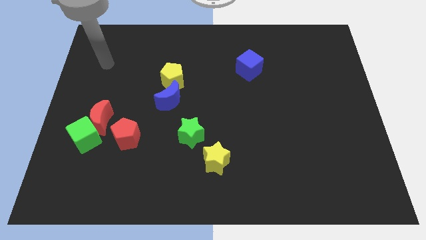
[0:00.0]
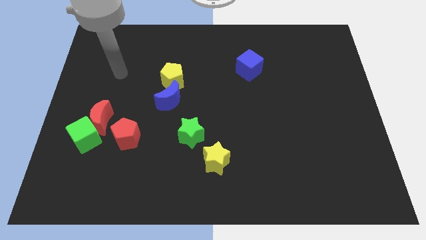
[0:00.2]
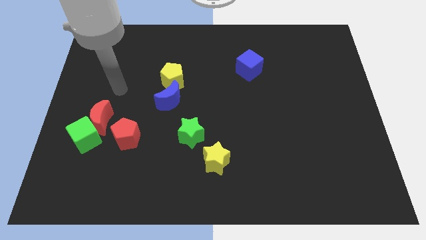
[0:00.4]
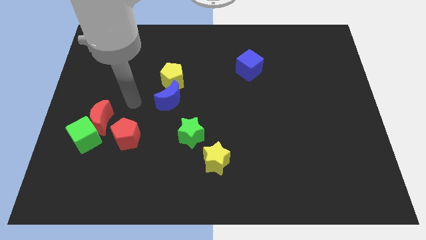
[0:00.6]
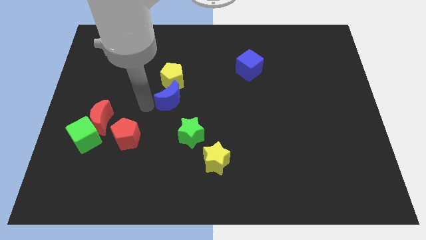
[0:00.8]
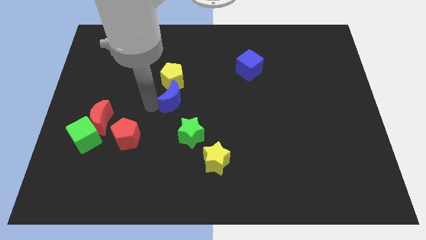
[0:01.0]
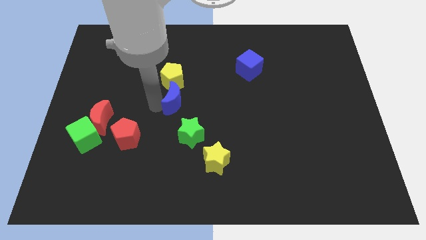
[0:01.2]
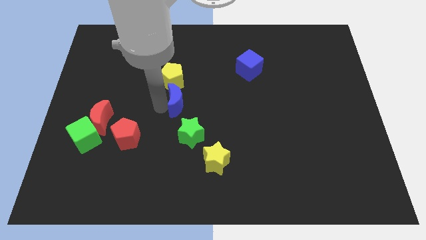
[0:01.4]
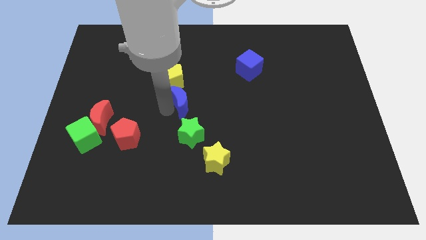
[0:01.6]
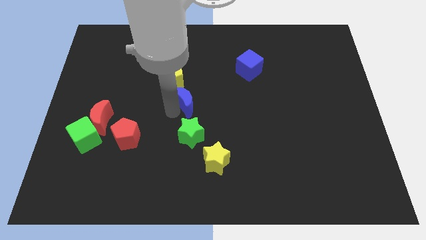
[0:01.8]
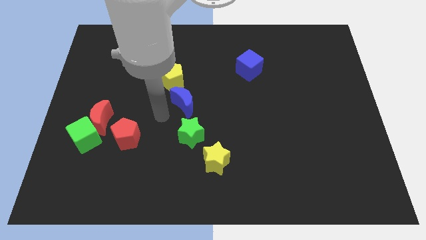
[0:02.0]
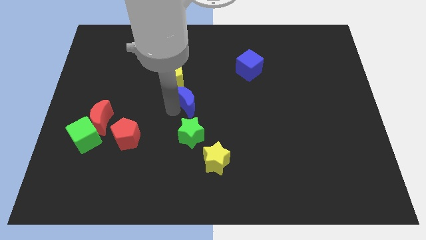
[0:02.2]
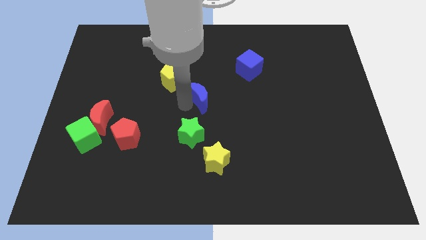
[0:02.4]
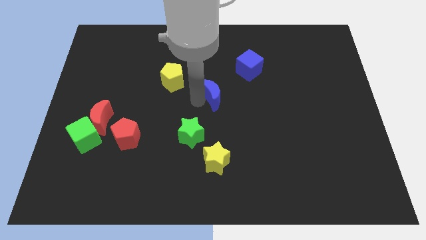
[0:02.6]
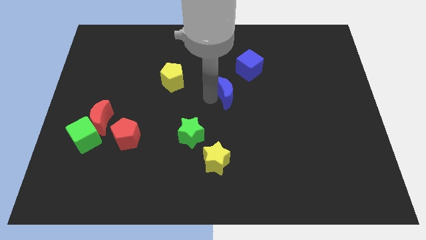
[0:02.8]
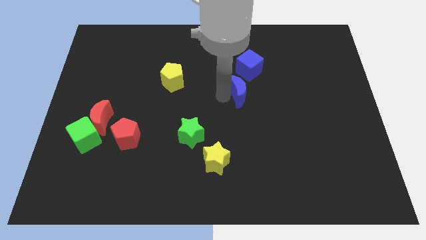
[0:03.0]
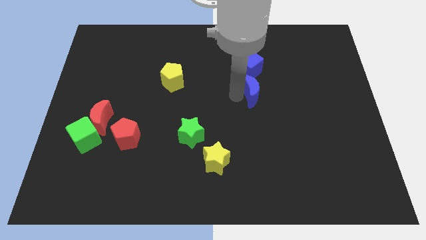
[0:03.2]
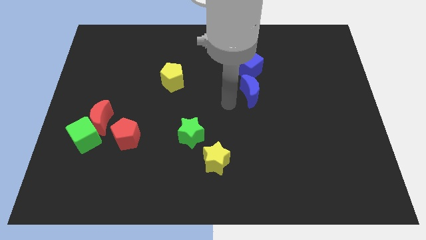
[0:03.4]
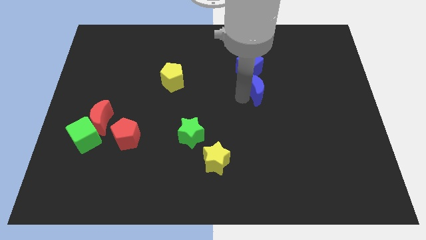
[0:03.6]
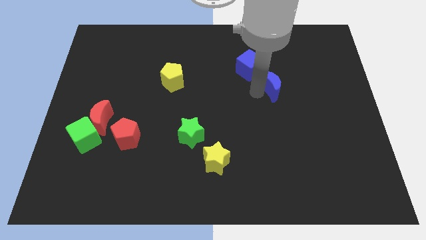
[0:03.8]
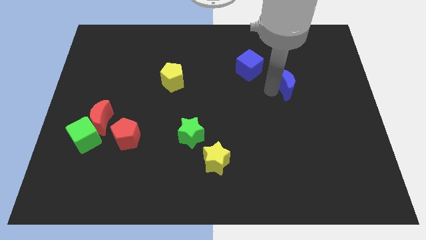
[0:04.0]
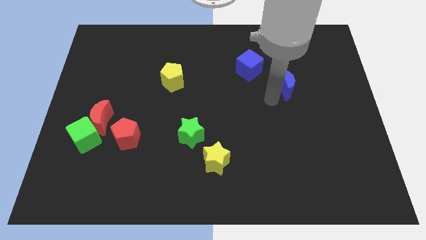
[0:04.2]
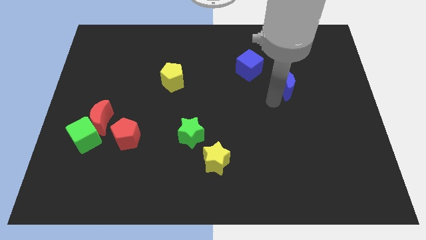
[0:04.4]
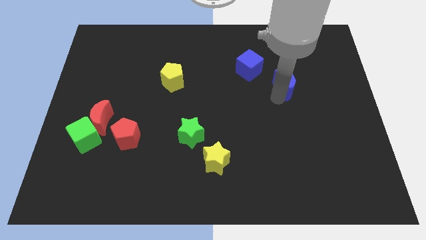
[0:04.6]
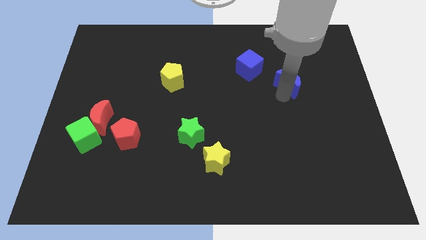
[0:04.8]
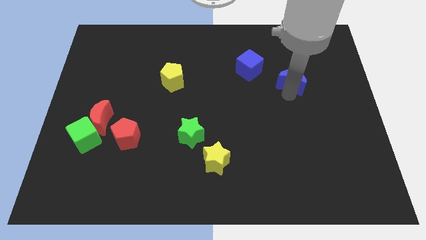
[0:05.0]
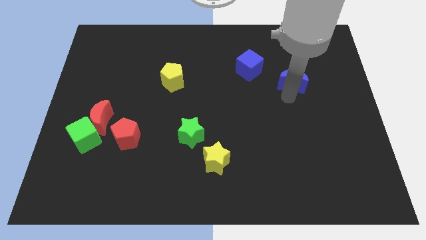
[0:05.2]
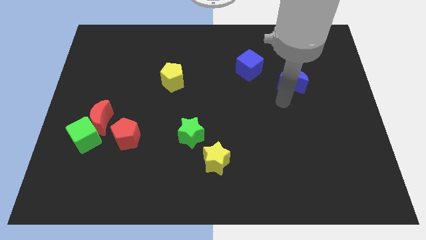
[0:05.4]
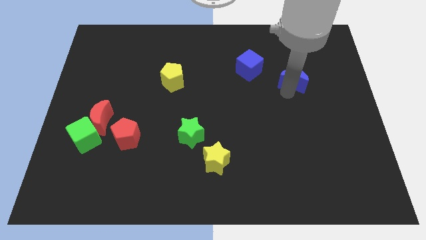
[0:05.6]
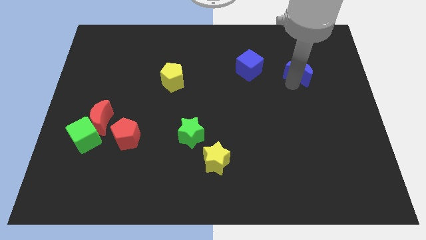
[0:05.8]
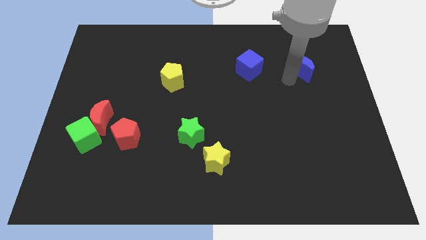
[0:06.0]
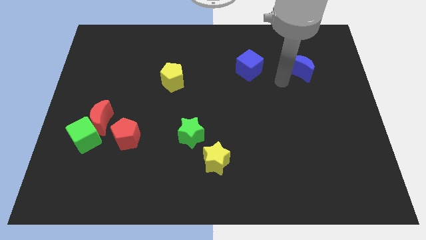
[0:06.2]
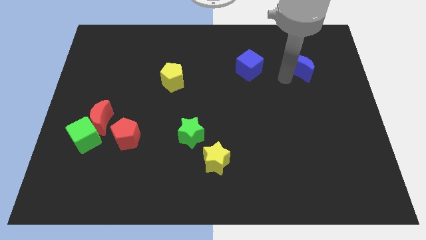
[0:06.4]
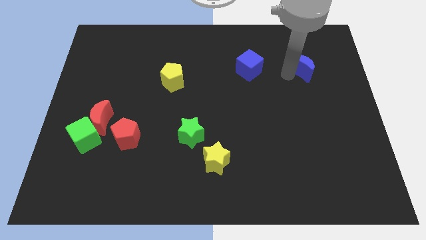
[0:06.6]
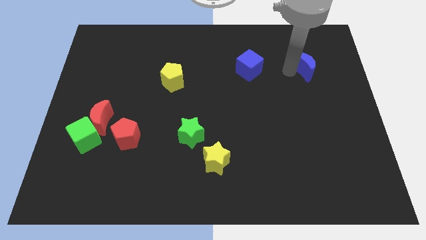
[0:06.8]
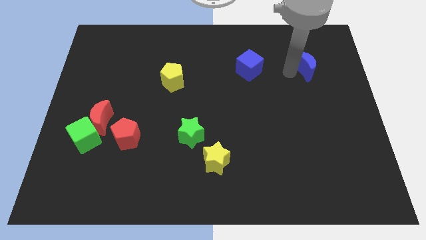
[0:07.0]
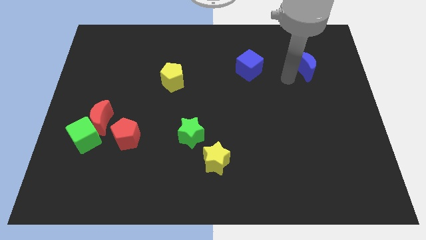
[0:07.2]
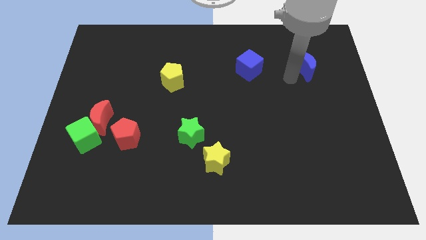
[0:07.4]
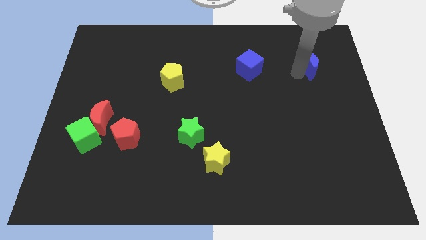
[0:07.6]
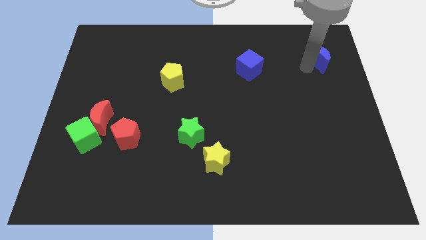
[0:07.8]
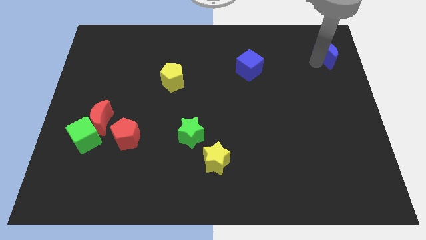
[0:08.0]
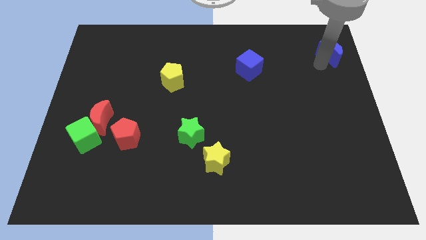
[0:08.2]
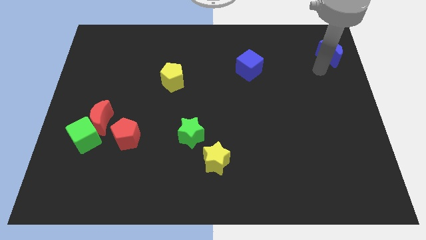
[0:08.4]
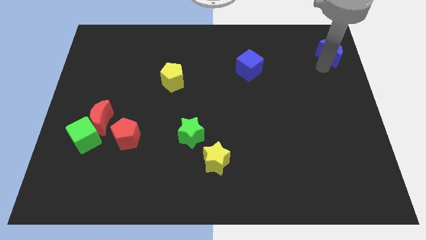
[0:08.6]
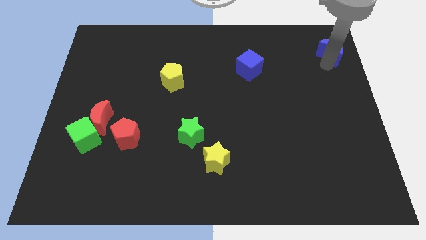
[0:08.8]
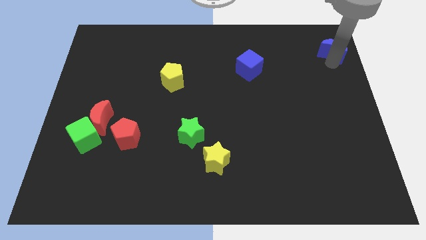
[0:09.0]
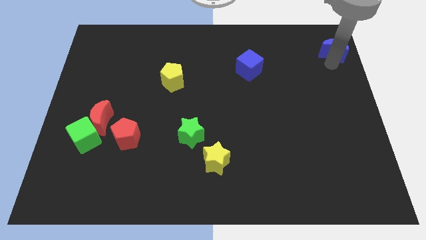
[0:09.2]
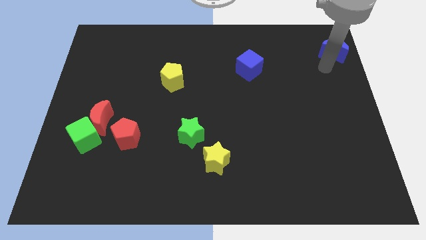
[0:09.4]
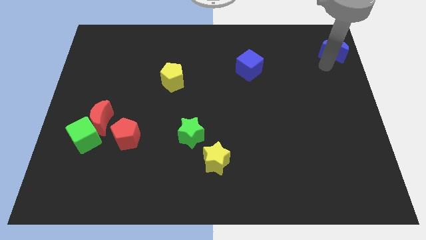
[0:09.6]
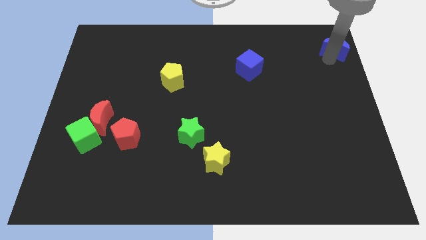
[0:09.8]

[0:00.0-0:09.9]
move the blue moon to the top right corner

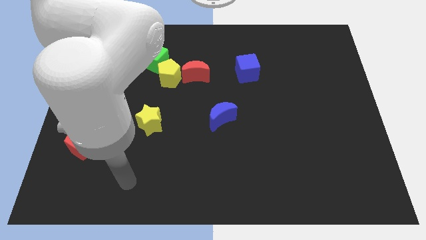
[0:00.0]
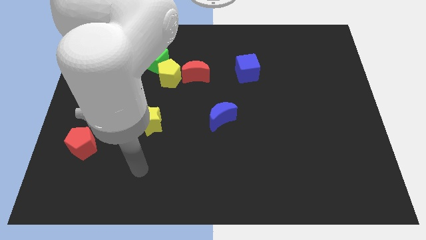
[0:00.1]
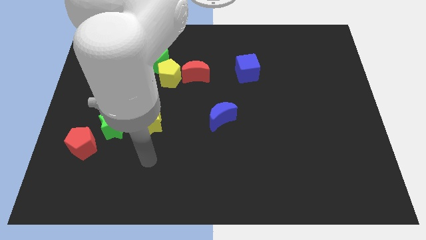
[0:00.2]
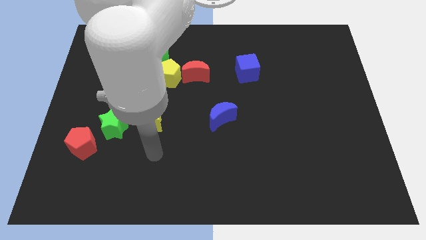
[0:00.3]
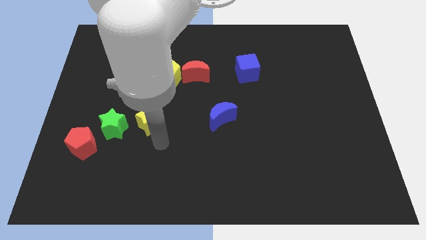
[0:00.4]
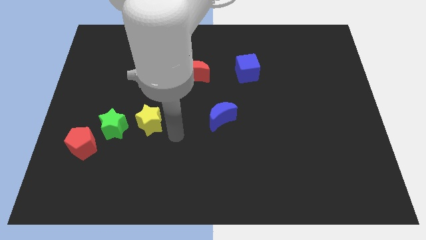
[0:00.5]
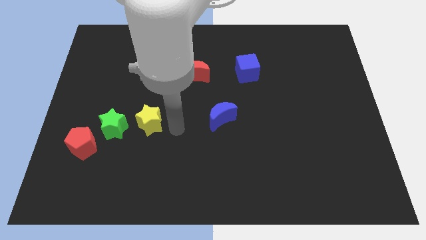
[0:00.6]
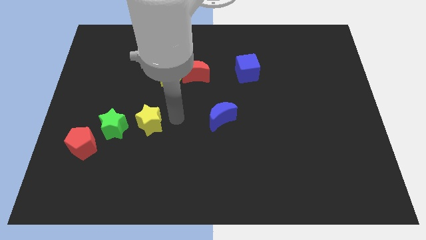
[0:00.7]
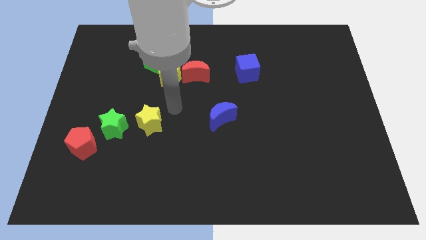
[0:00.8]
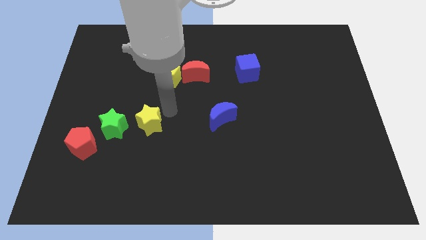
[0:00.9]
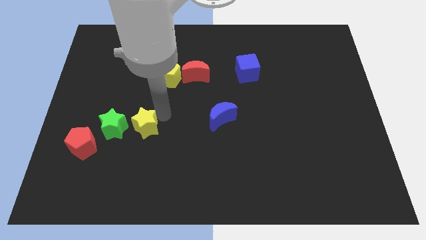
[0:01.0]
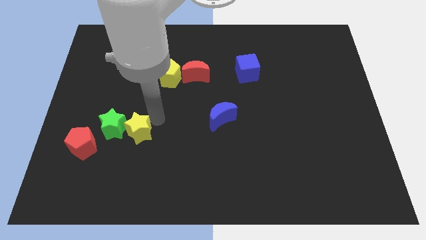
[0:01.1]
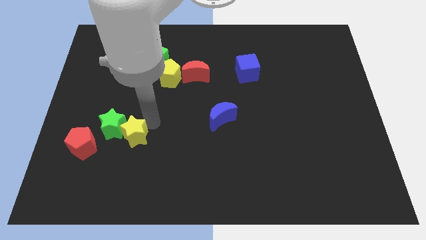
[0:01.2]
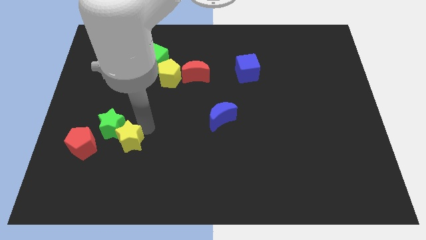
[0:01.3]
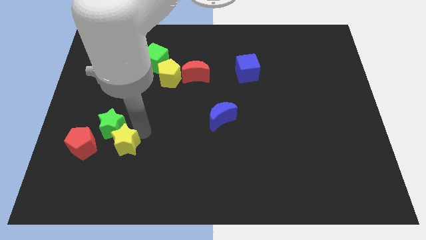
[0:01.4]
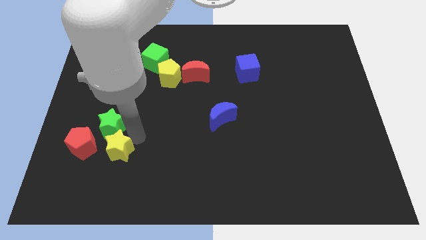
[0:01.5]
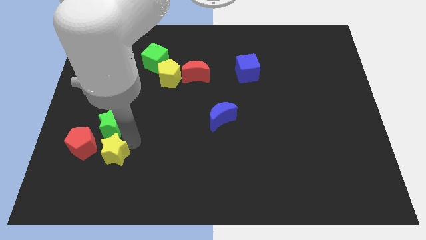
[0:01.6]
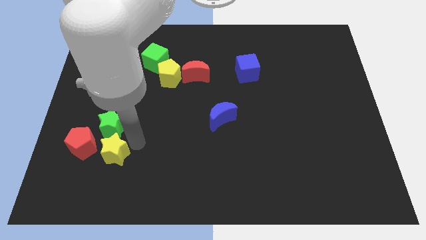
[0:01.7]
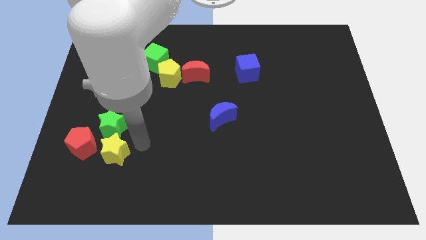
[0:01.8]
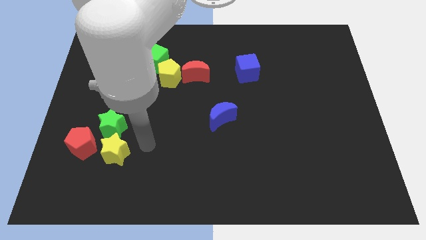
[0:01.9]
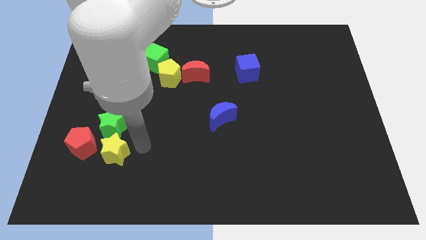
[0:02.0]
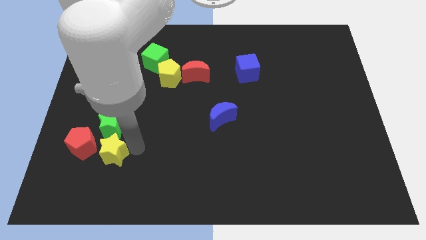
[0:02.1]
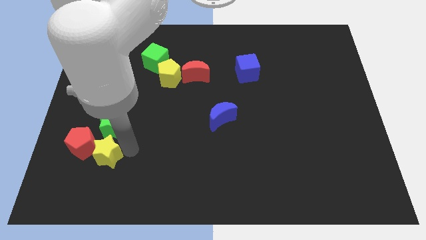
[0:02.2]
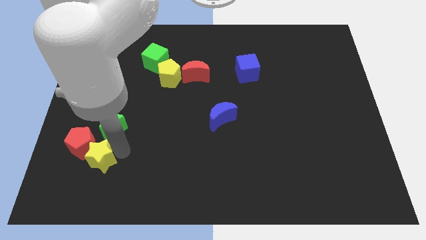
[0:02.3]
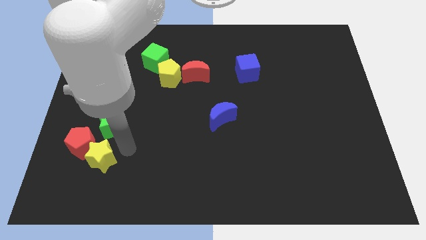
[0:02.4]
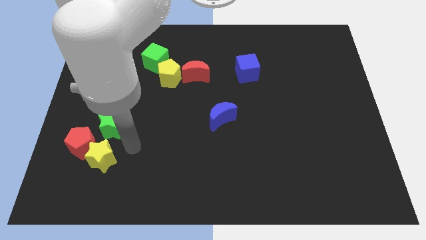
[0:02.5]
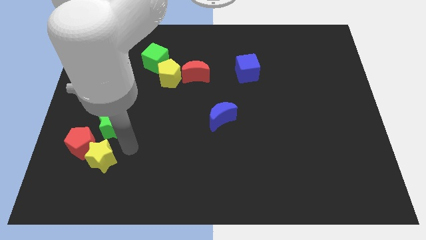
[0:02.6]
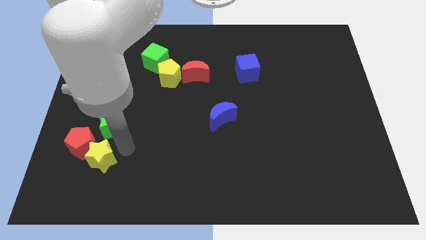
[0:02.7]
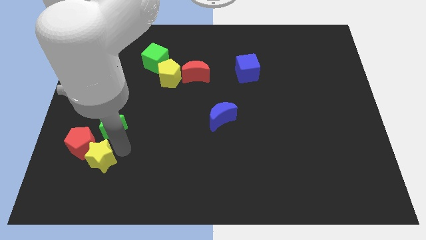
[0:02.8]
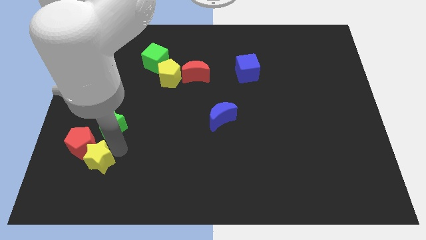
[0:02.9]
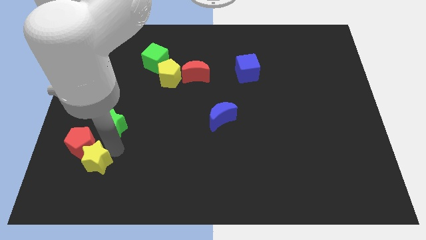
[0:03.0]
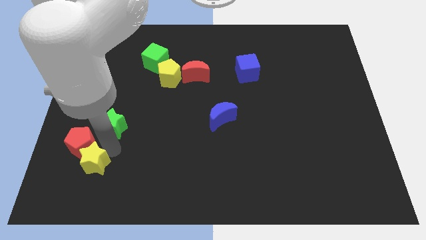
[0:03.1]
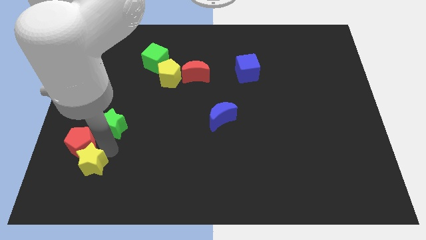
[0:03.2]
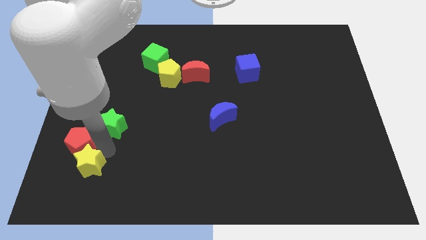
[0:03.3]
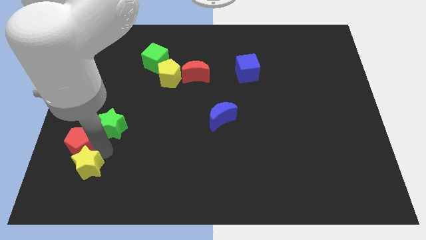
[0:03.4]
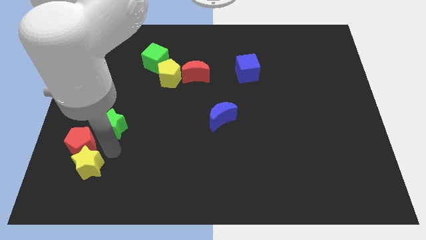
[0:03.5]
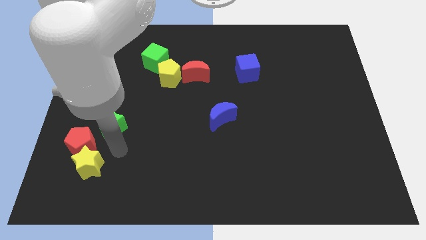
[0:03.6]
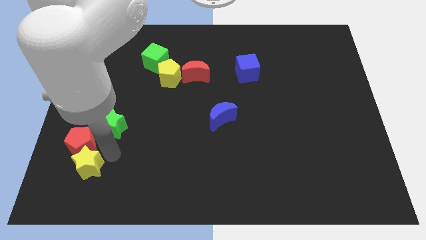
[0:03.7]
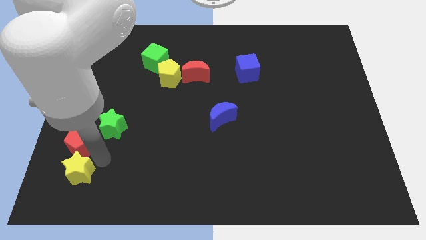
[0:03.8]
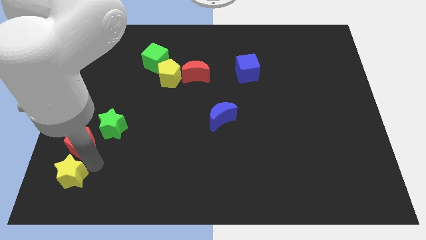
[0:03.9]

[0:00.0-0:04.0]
slide the yellow star to the lower left corner
